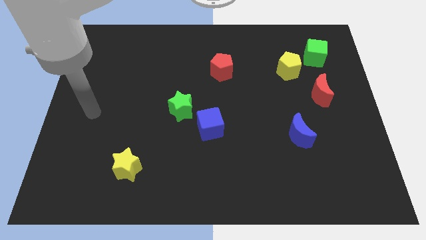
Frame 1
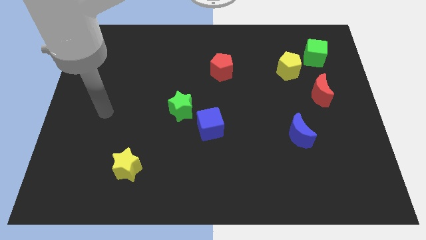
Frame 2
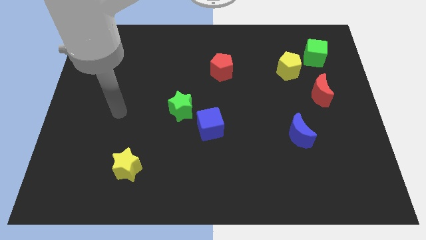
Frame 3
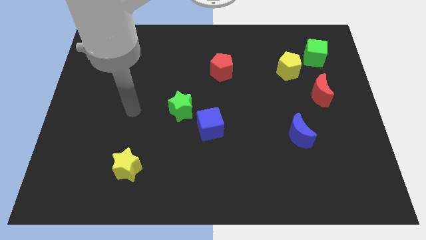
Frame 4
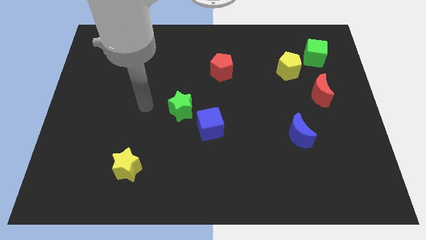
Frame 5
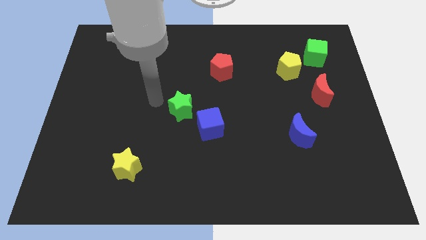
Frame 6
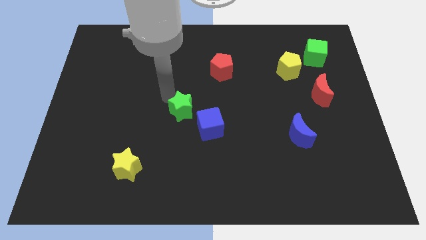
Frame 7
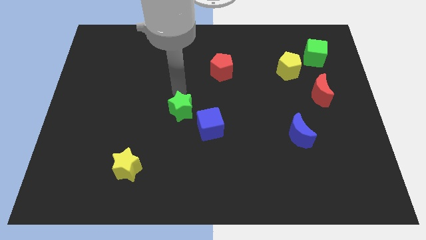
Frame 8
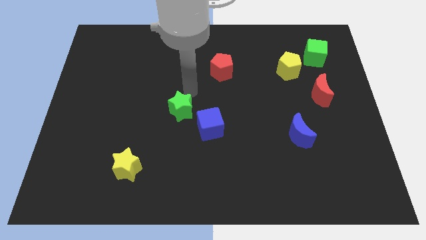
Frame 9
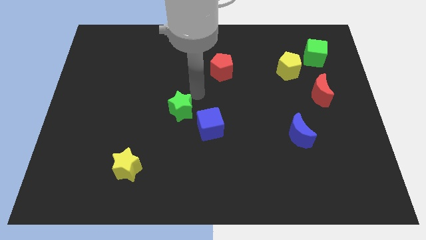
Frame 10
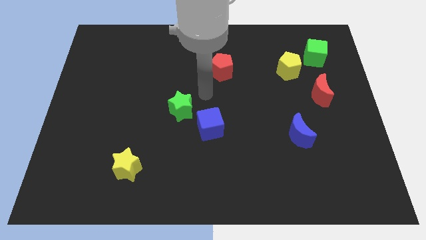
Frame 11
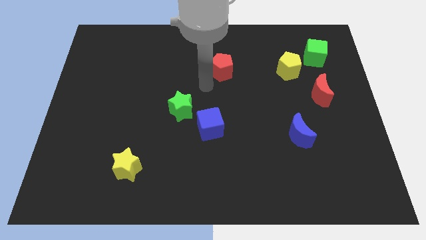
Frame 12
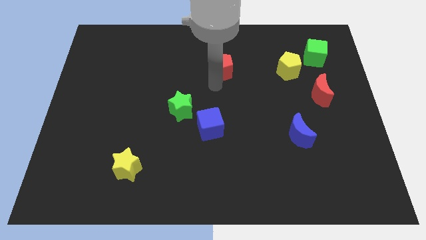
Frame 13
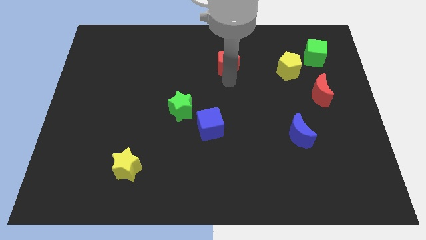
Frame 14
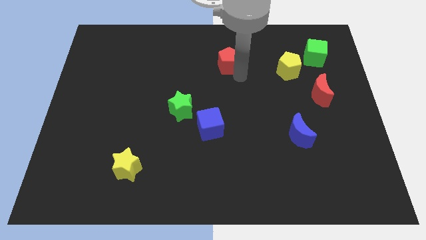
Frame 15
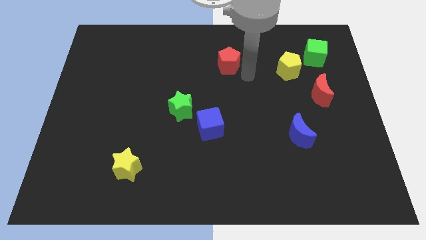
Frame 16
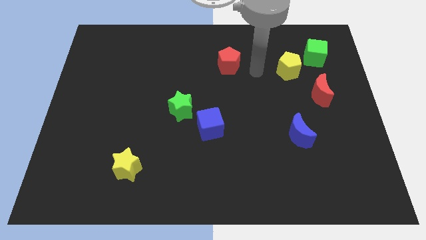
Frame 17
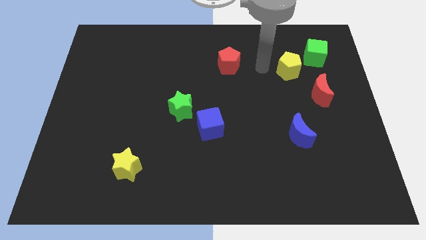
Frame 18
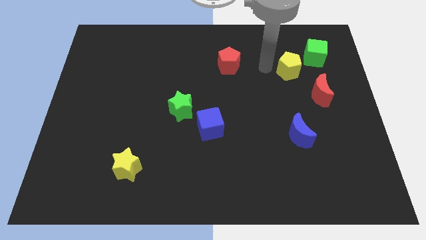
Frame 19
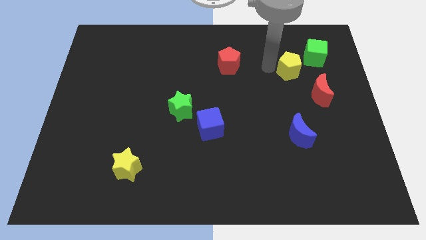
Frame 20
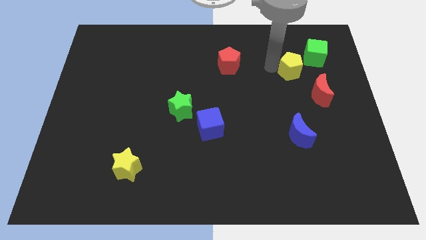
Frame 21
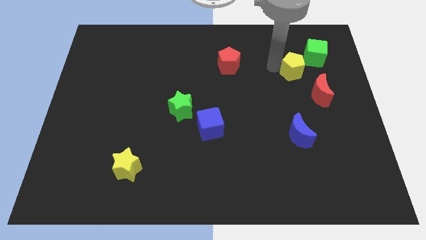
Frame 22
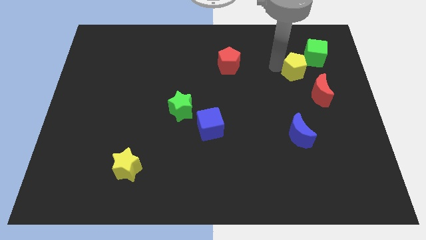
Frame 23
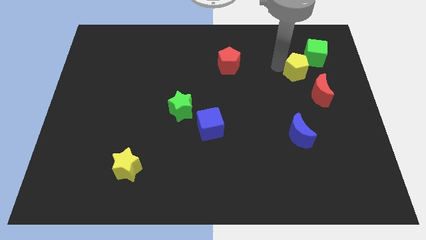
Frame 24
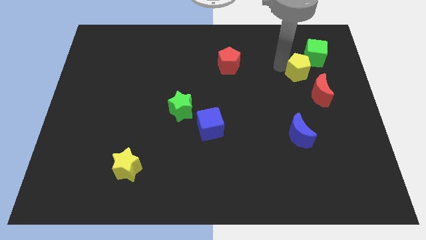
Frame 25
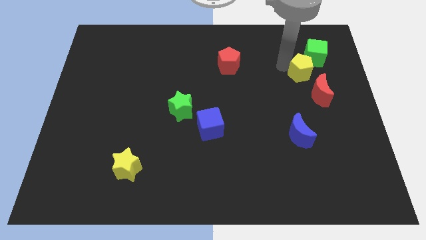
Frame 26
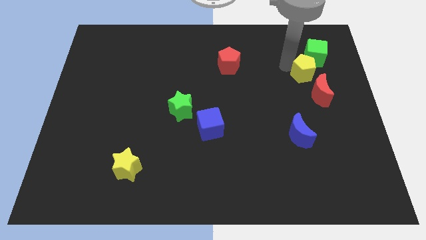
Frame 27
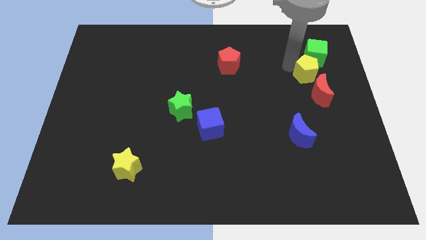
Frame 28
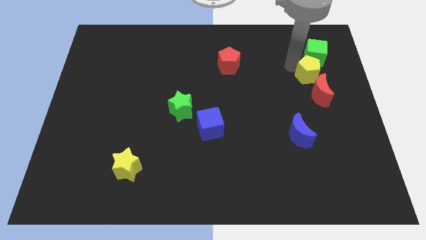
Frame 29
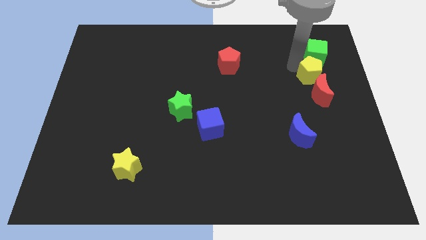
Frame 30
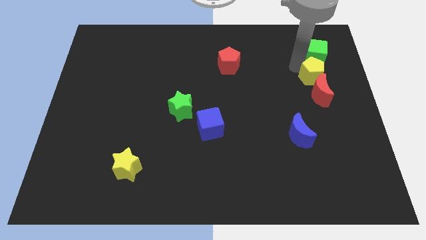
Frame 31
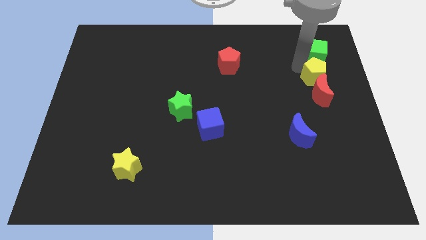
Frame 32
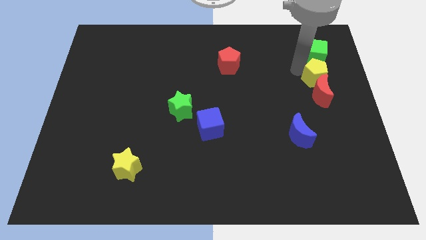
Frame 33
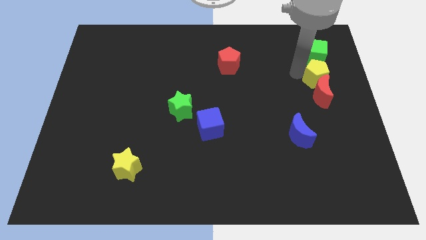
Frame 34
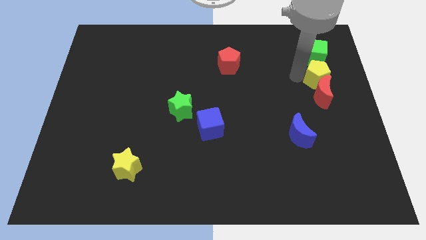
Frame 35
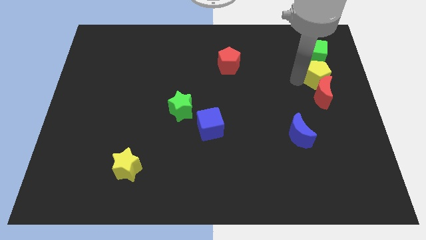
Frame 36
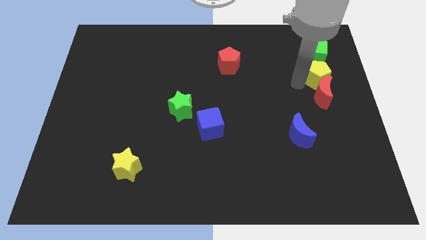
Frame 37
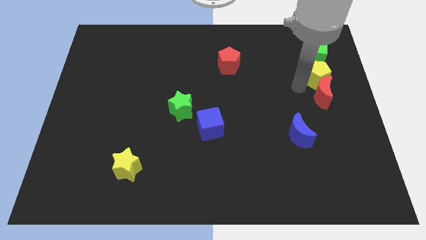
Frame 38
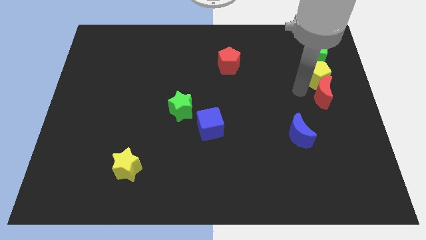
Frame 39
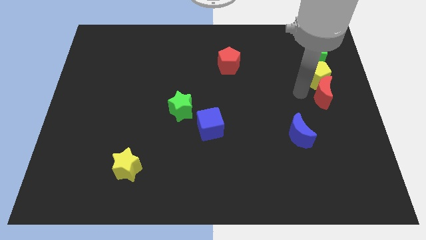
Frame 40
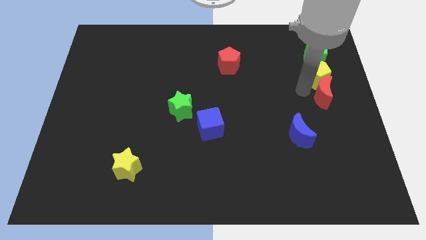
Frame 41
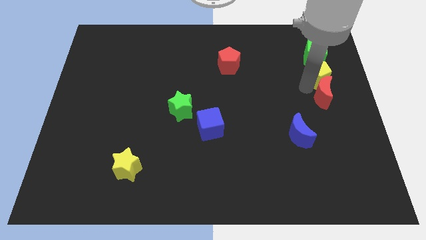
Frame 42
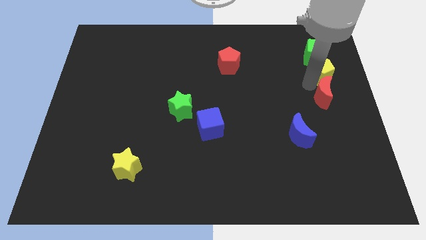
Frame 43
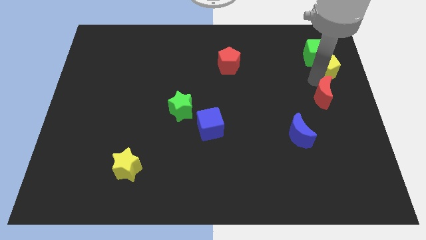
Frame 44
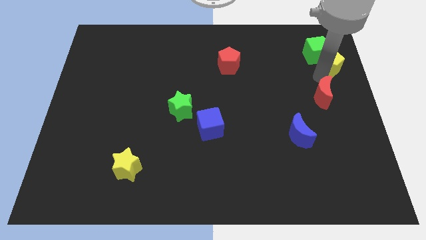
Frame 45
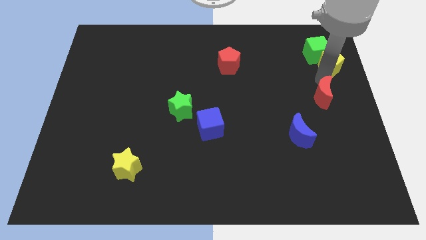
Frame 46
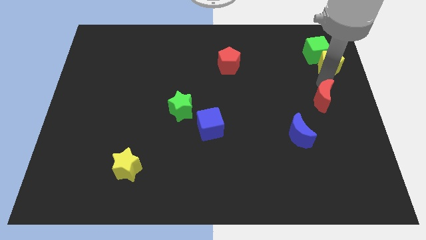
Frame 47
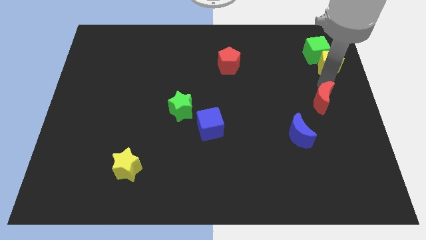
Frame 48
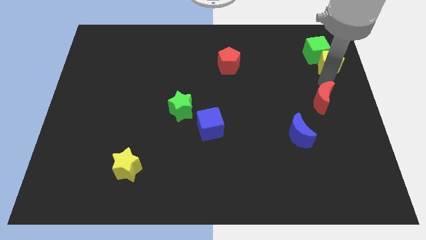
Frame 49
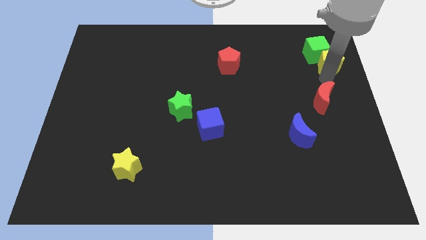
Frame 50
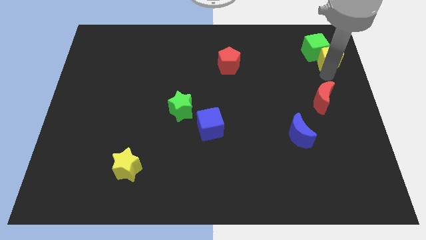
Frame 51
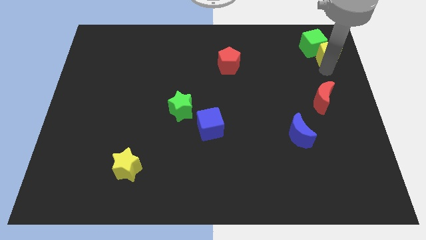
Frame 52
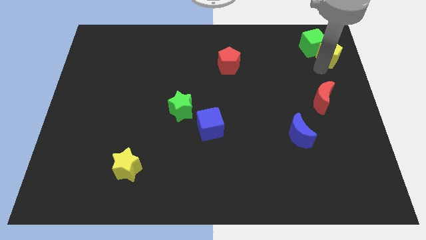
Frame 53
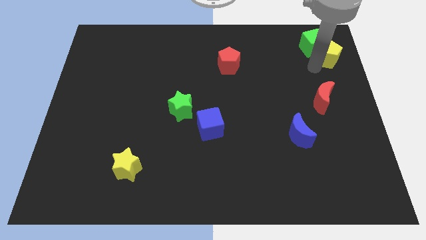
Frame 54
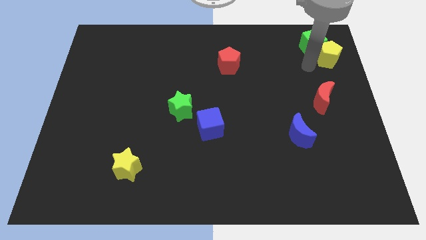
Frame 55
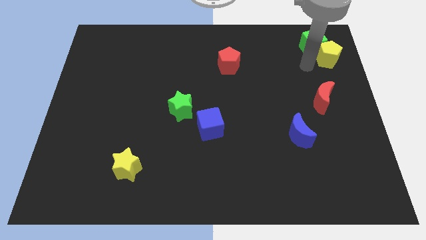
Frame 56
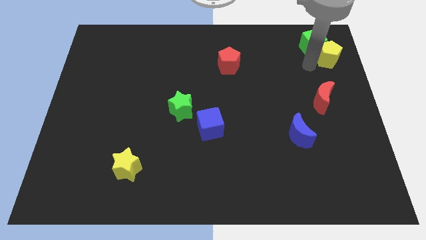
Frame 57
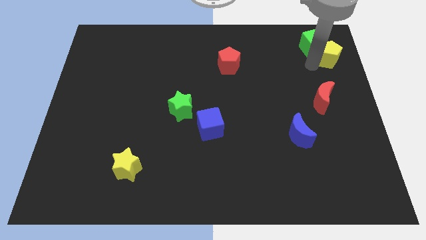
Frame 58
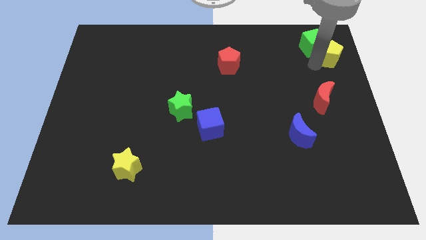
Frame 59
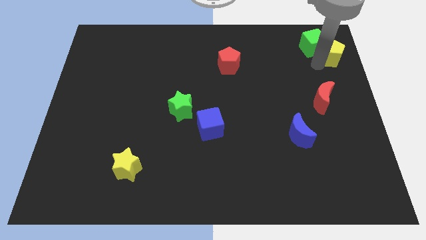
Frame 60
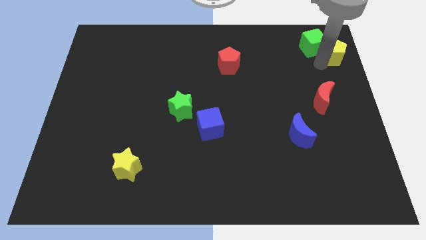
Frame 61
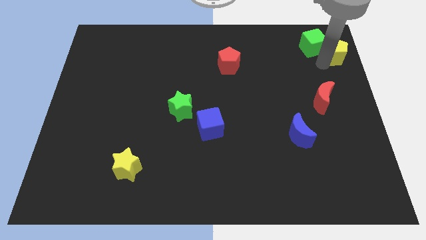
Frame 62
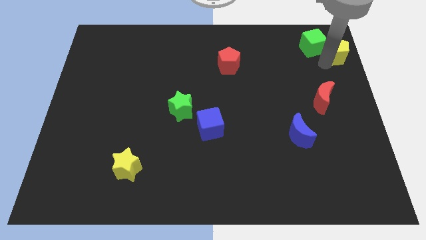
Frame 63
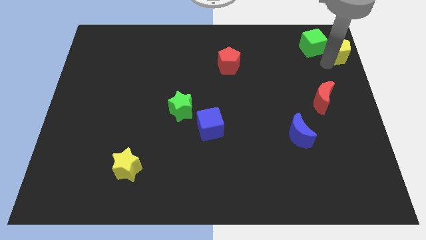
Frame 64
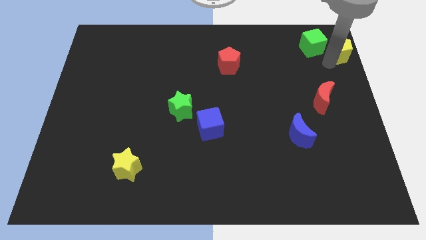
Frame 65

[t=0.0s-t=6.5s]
push the yellow pentagon to the top right
